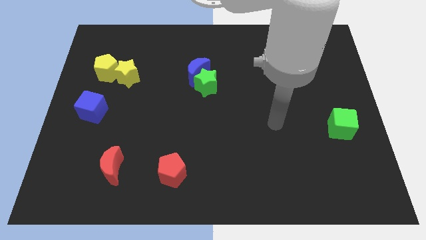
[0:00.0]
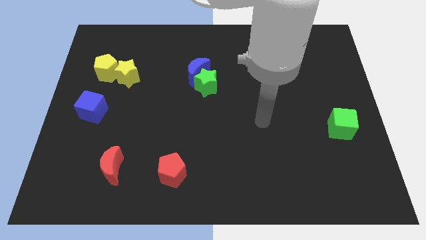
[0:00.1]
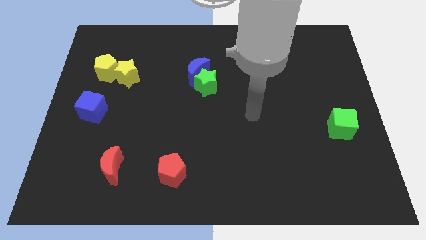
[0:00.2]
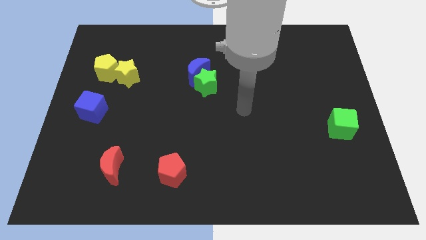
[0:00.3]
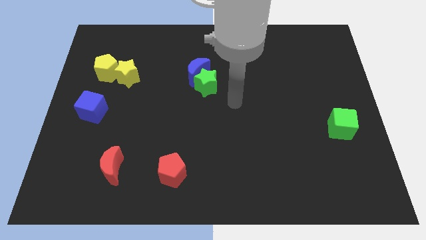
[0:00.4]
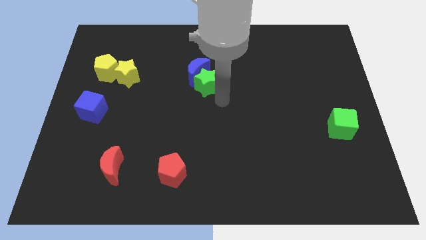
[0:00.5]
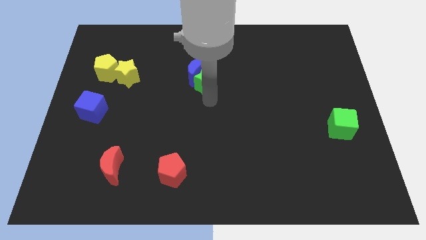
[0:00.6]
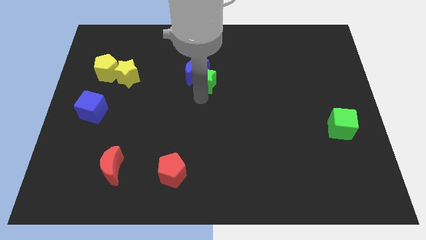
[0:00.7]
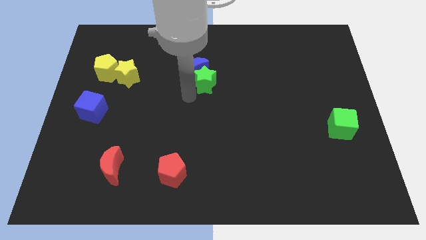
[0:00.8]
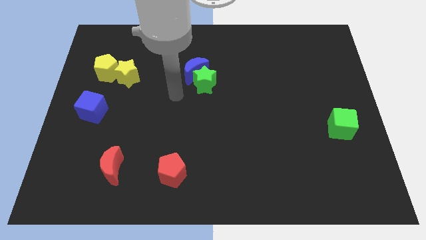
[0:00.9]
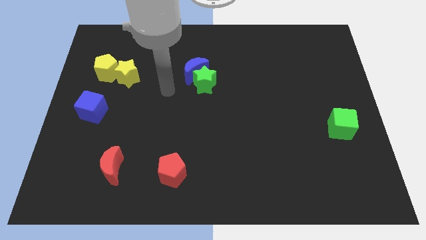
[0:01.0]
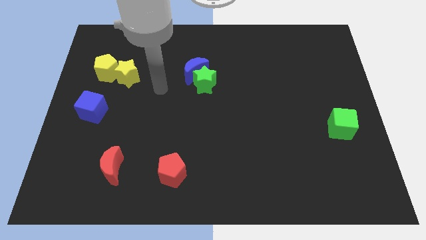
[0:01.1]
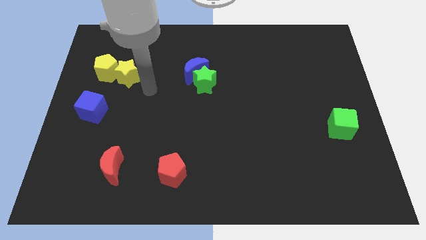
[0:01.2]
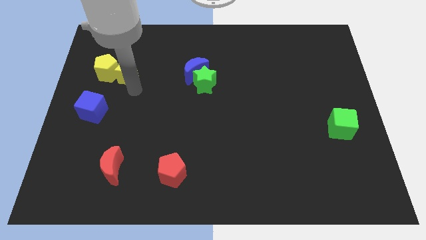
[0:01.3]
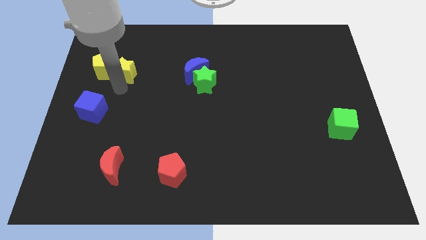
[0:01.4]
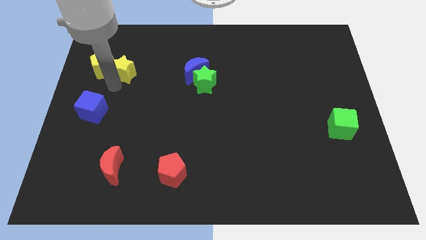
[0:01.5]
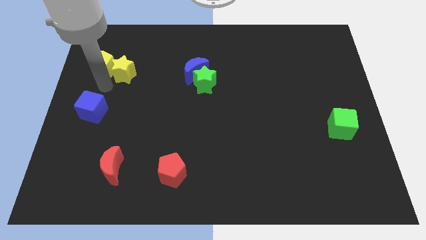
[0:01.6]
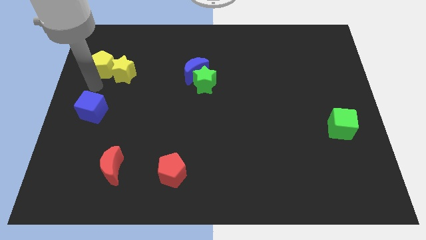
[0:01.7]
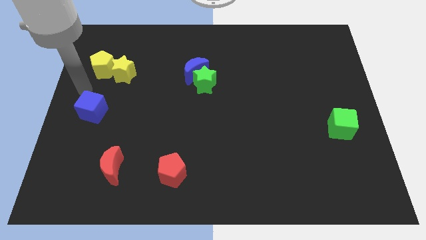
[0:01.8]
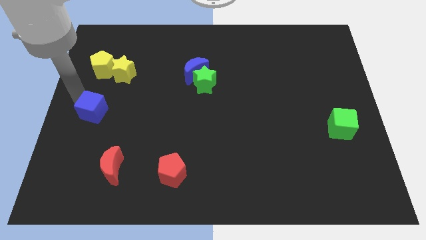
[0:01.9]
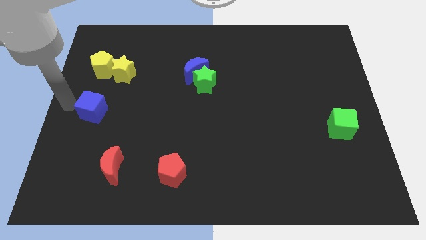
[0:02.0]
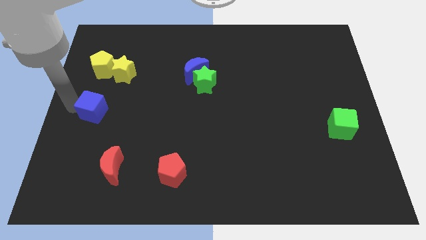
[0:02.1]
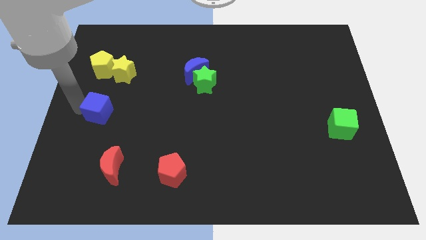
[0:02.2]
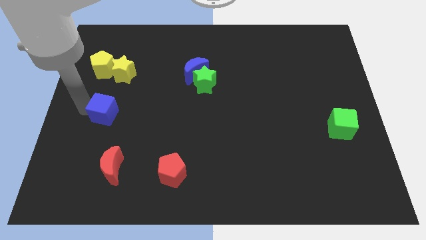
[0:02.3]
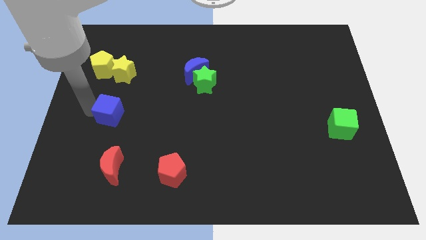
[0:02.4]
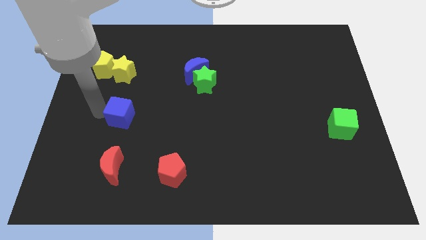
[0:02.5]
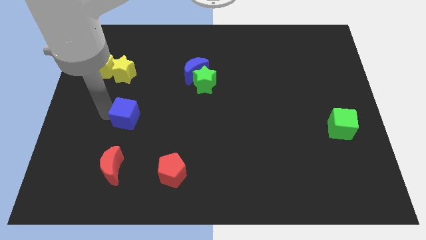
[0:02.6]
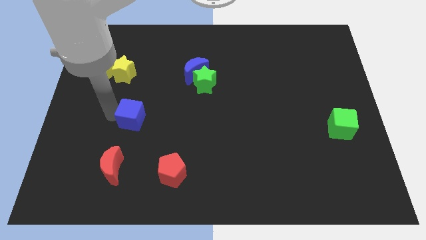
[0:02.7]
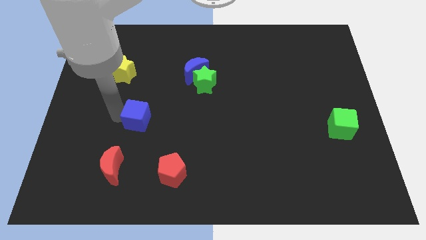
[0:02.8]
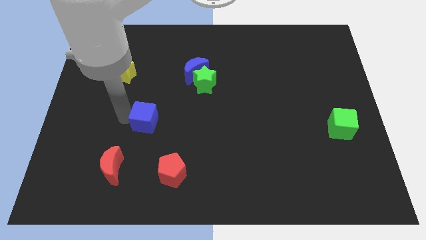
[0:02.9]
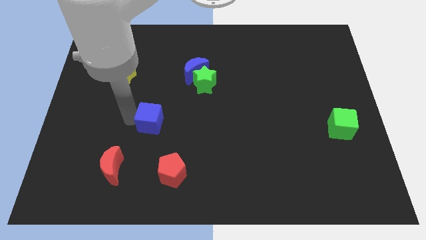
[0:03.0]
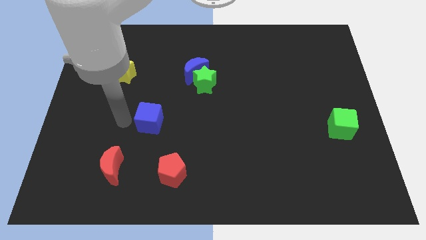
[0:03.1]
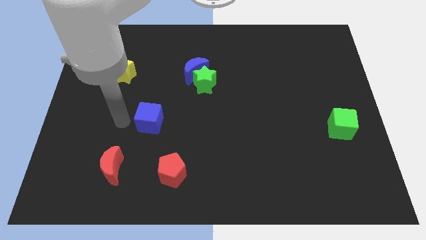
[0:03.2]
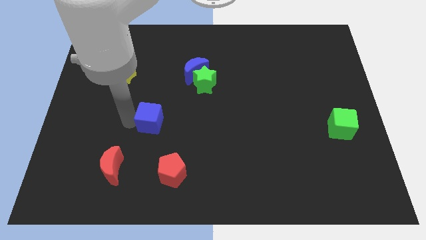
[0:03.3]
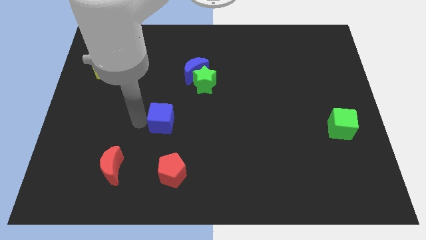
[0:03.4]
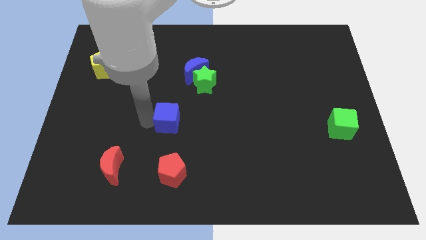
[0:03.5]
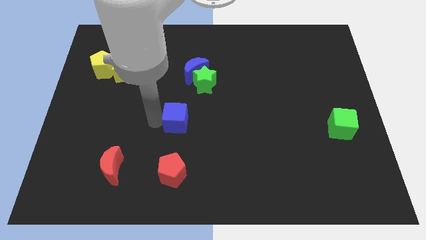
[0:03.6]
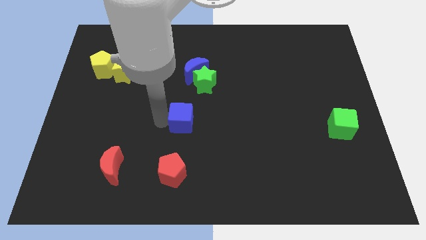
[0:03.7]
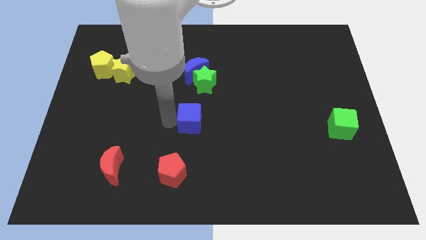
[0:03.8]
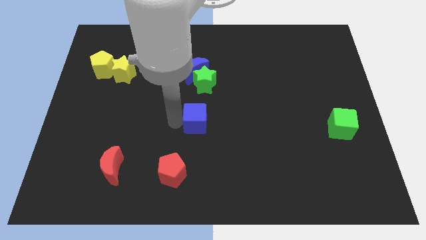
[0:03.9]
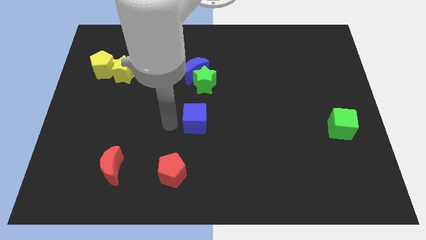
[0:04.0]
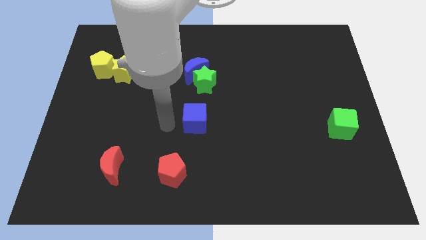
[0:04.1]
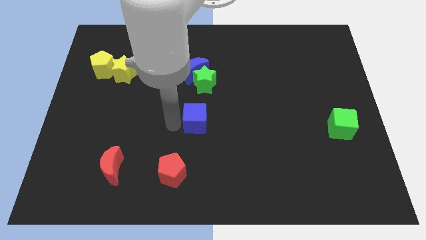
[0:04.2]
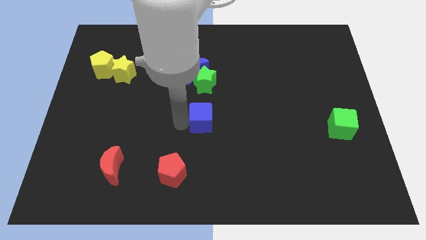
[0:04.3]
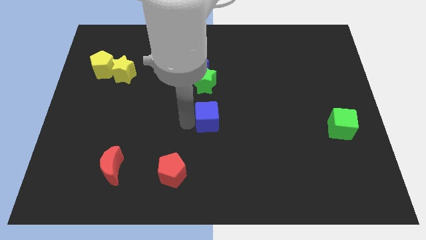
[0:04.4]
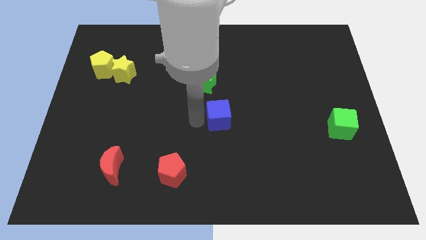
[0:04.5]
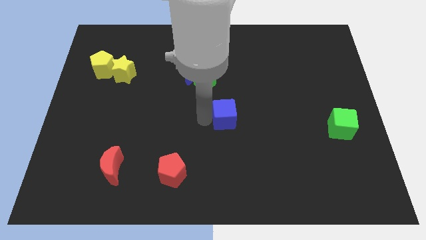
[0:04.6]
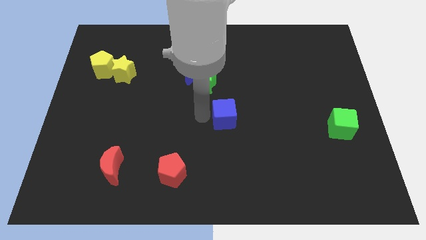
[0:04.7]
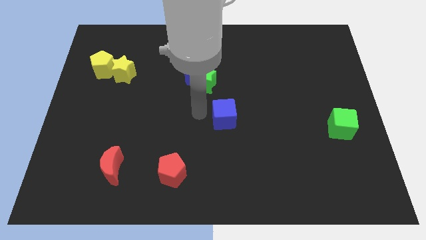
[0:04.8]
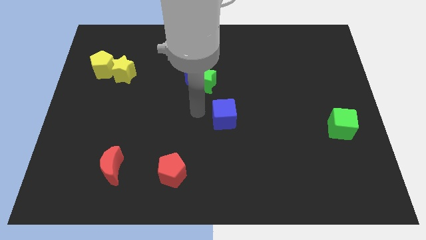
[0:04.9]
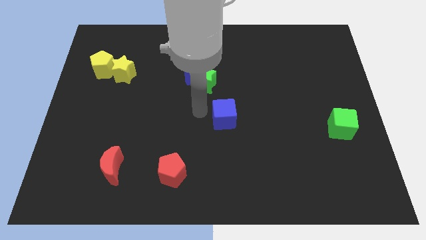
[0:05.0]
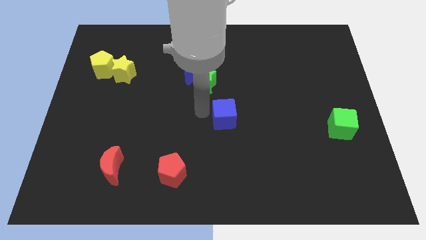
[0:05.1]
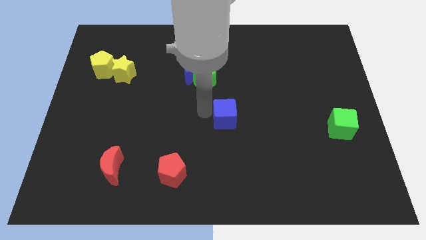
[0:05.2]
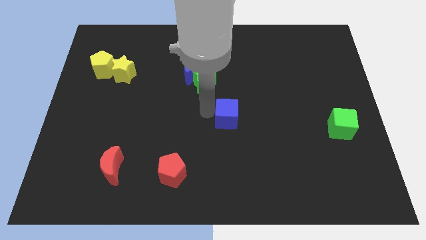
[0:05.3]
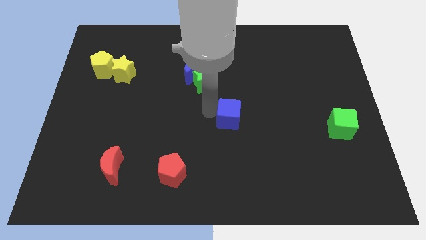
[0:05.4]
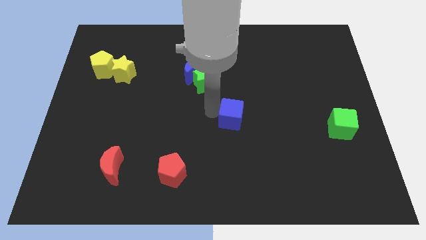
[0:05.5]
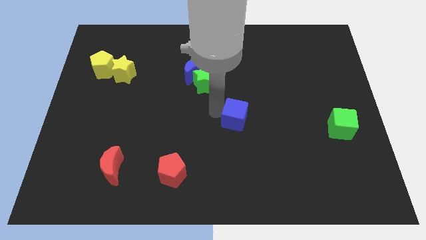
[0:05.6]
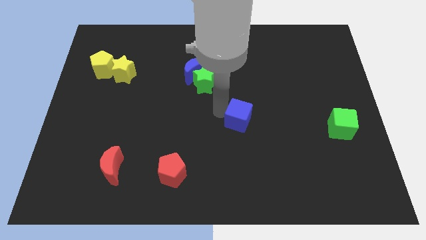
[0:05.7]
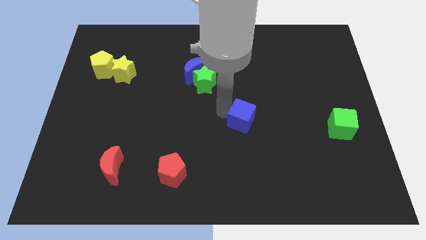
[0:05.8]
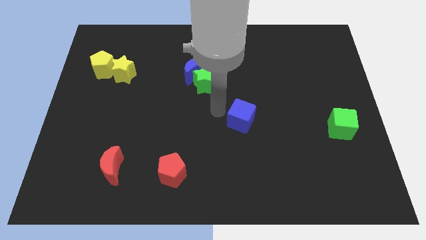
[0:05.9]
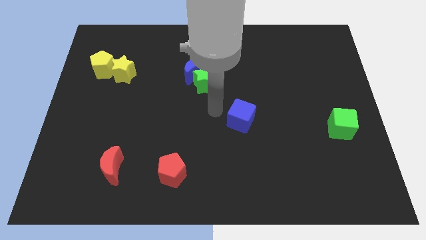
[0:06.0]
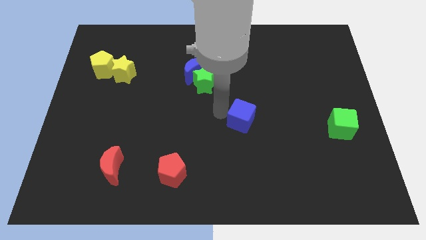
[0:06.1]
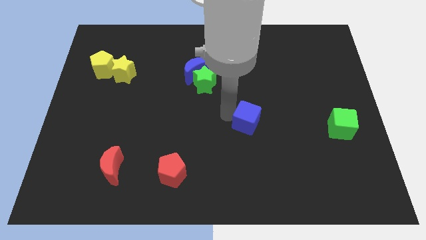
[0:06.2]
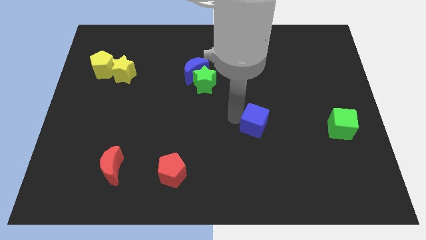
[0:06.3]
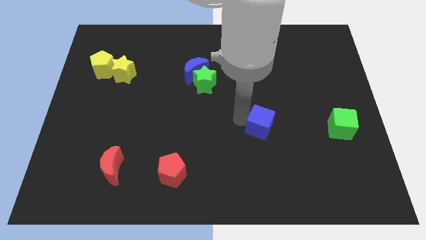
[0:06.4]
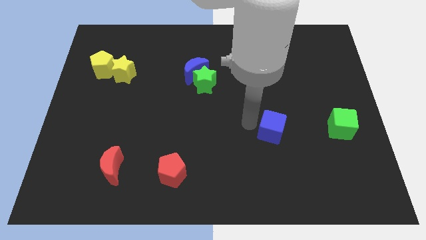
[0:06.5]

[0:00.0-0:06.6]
push the blue cube just left of the green cube

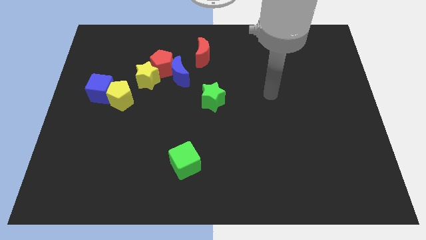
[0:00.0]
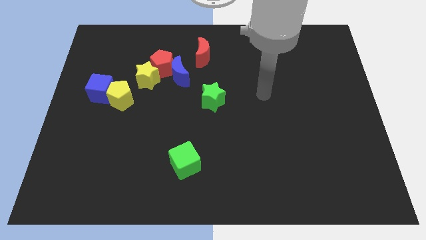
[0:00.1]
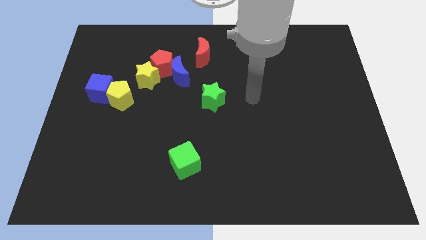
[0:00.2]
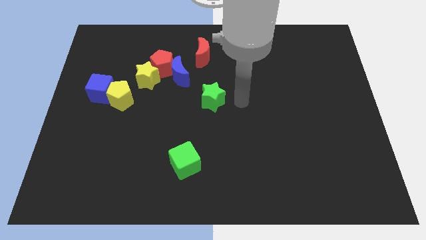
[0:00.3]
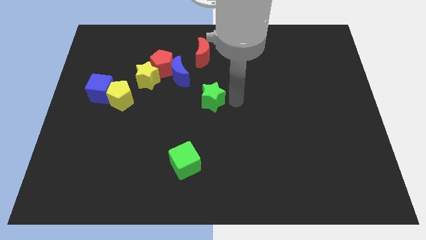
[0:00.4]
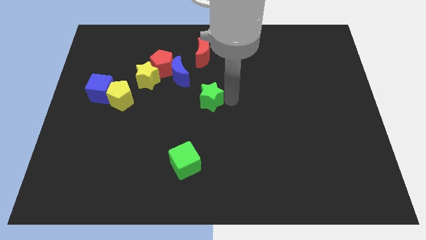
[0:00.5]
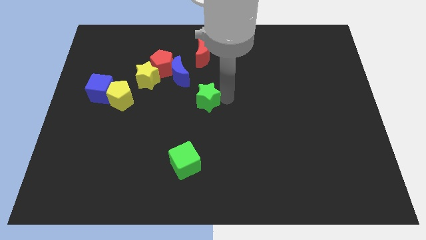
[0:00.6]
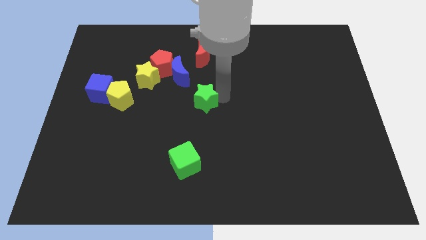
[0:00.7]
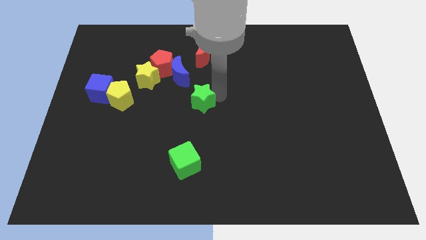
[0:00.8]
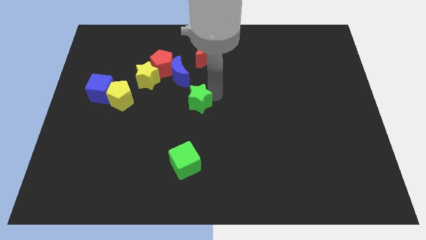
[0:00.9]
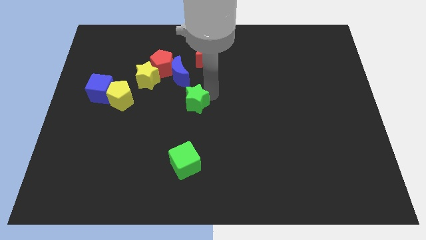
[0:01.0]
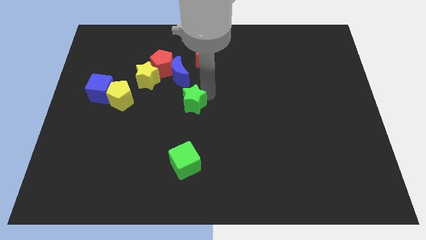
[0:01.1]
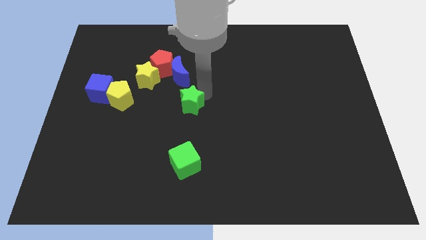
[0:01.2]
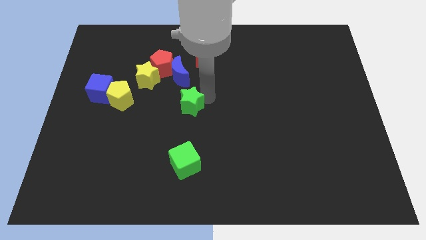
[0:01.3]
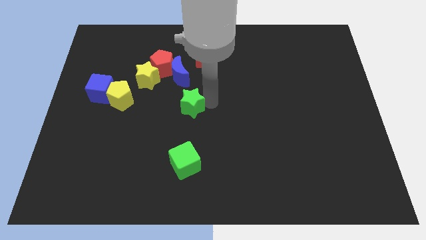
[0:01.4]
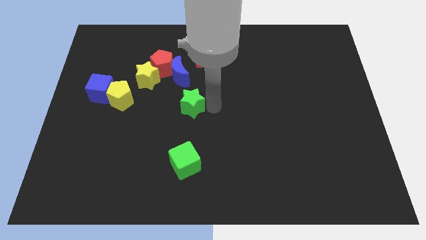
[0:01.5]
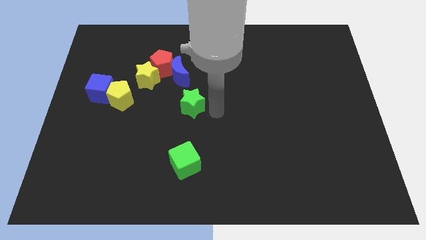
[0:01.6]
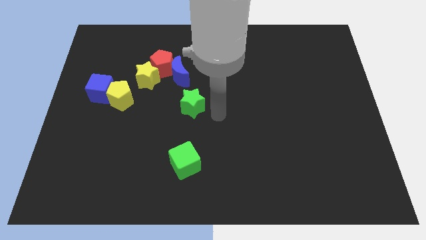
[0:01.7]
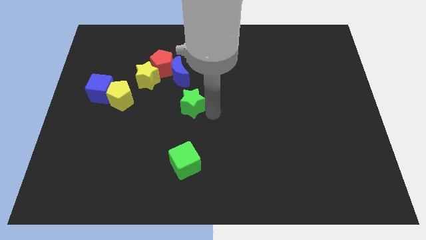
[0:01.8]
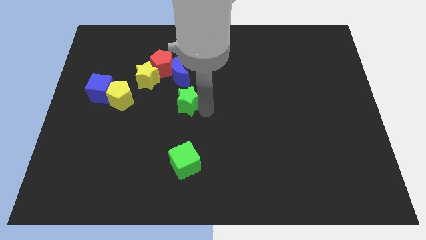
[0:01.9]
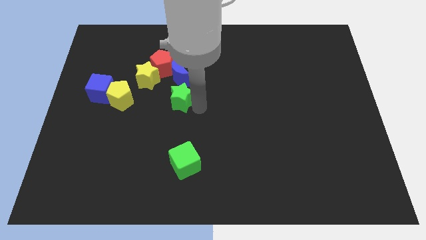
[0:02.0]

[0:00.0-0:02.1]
move the green star to the bottom right of the yellow star
